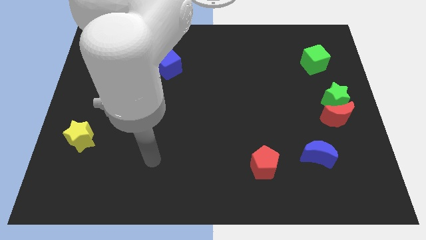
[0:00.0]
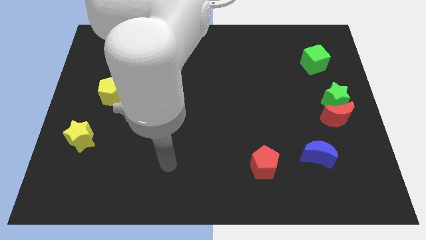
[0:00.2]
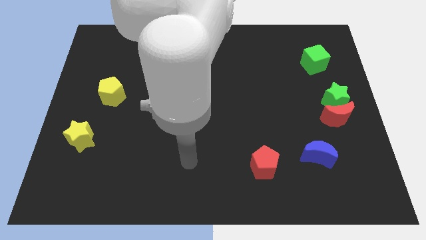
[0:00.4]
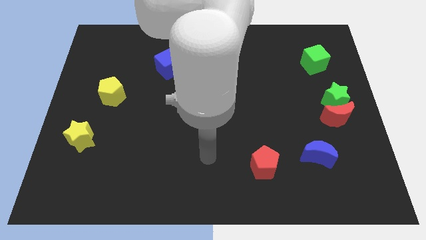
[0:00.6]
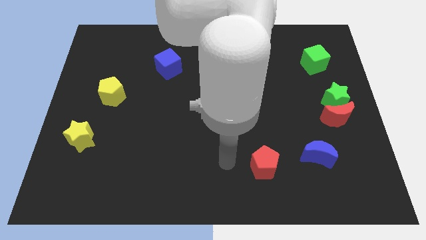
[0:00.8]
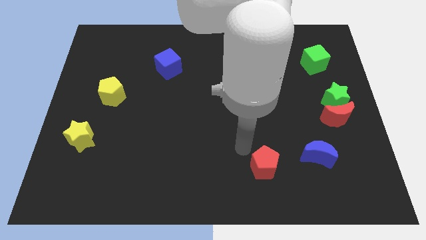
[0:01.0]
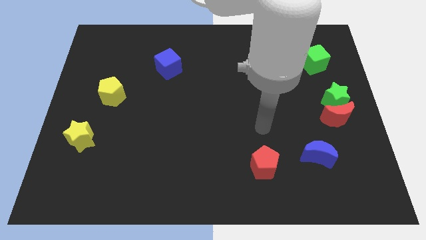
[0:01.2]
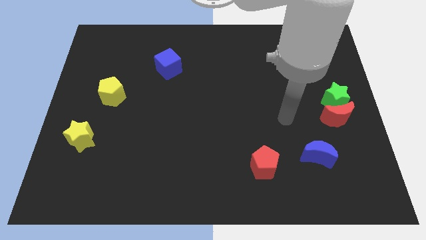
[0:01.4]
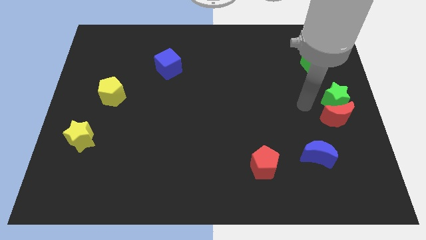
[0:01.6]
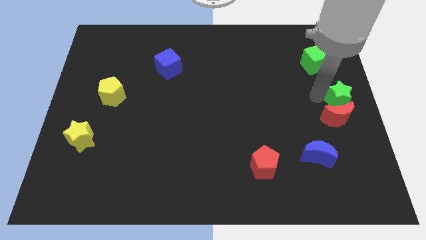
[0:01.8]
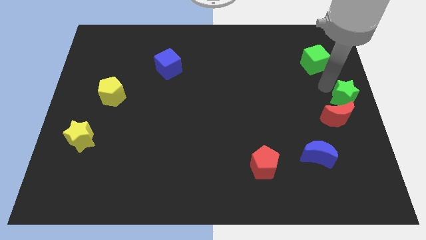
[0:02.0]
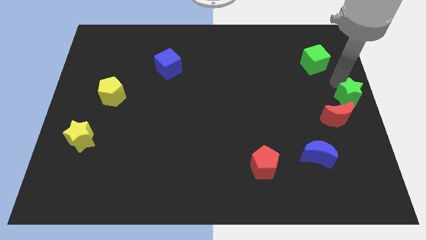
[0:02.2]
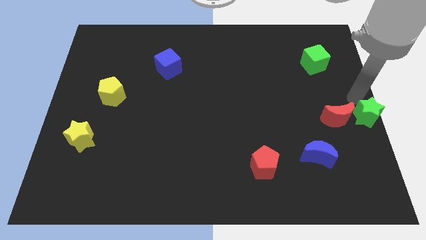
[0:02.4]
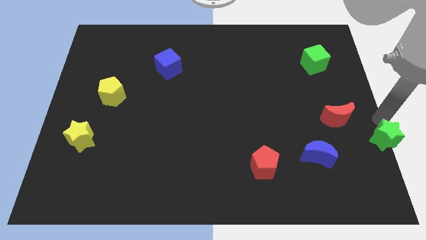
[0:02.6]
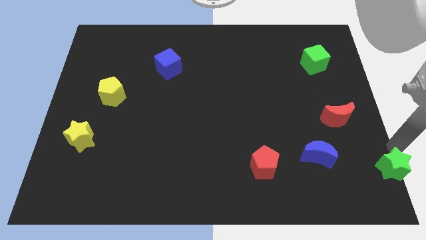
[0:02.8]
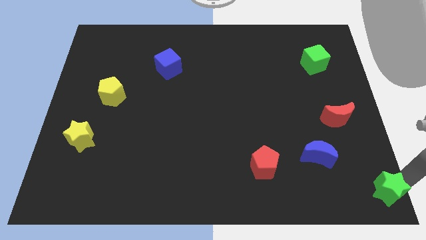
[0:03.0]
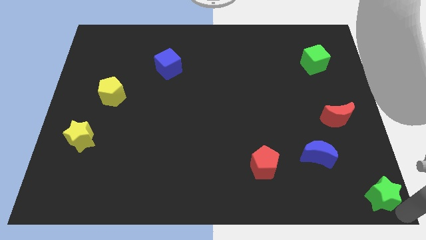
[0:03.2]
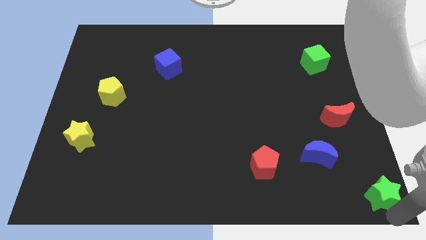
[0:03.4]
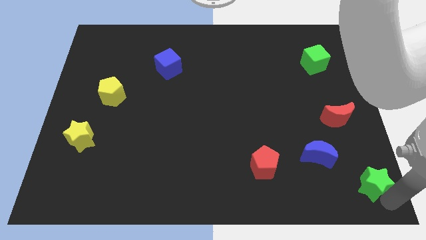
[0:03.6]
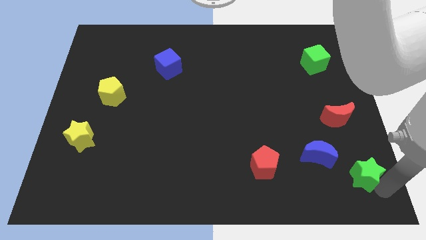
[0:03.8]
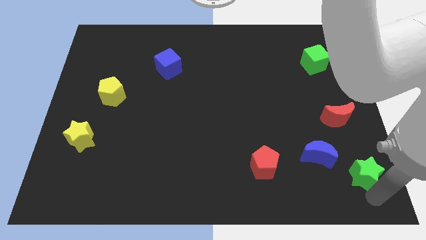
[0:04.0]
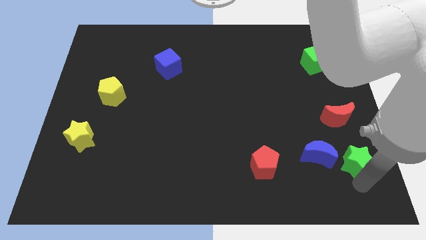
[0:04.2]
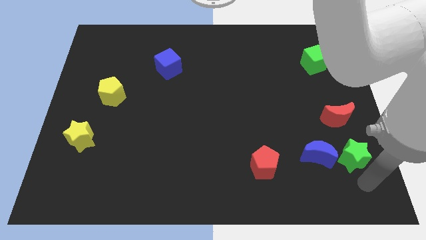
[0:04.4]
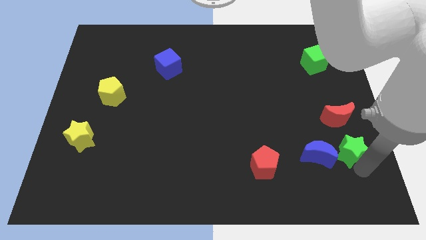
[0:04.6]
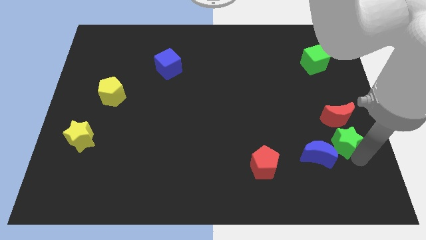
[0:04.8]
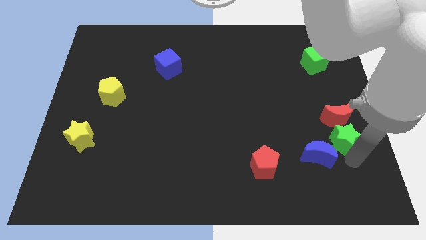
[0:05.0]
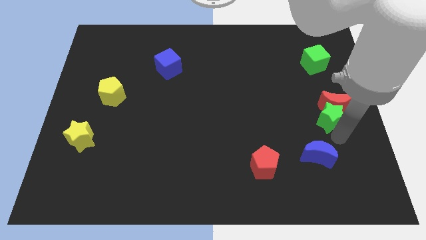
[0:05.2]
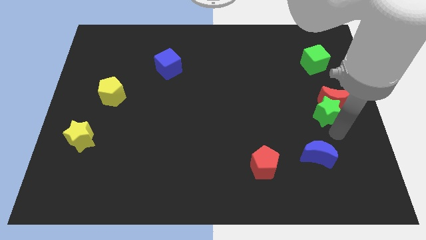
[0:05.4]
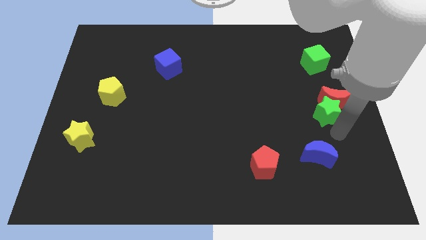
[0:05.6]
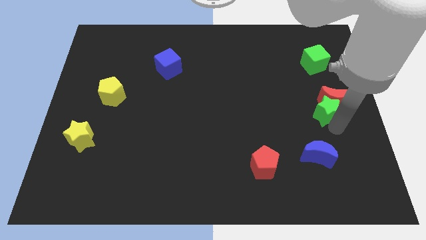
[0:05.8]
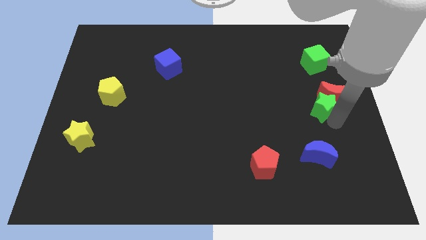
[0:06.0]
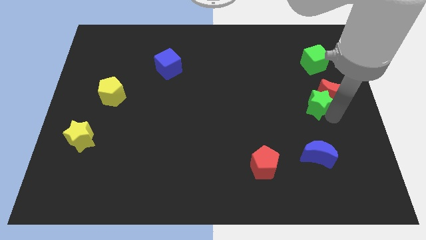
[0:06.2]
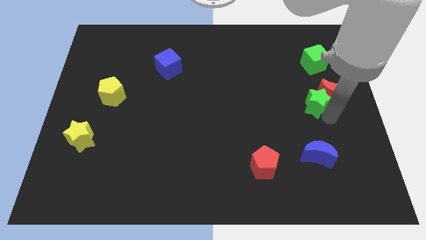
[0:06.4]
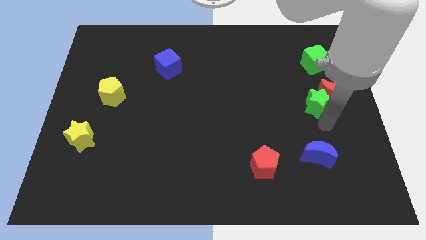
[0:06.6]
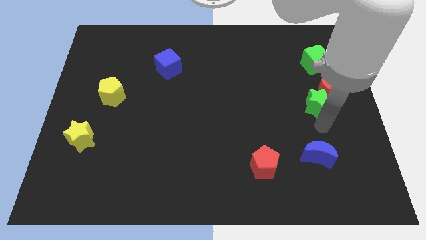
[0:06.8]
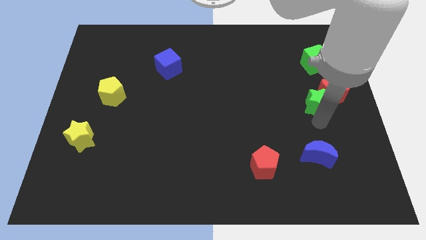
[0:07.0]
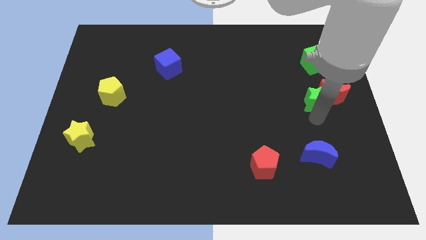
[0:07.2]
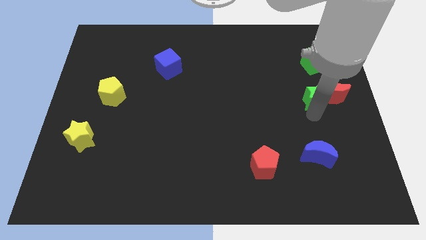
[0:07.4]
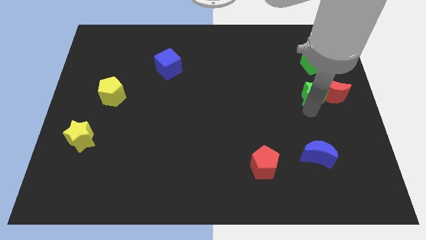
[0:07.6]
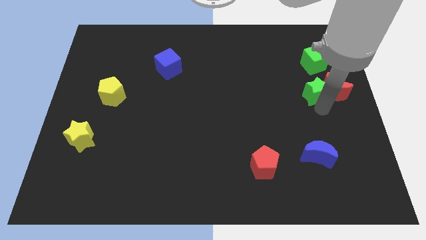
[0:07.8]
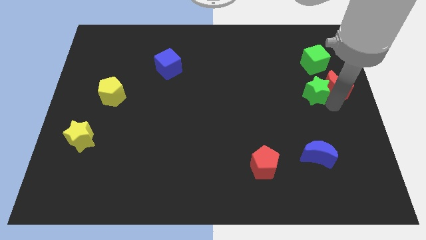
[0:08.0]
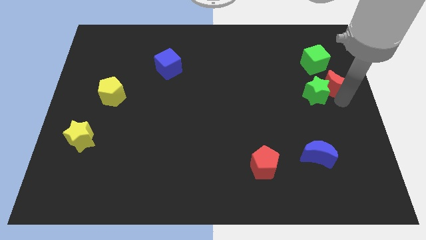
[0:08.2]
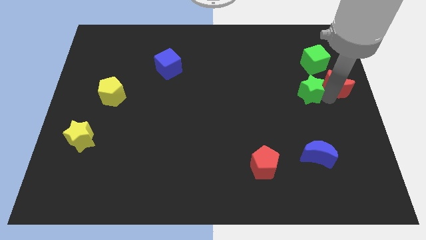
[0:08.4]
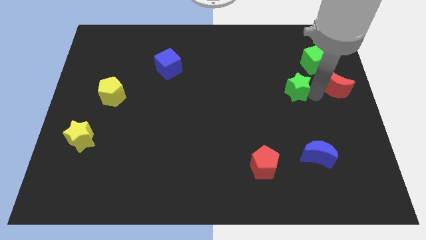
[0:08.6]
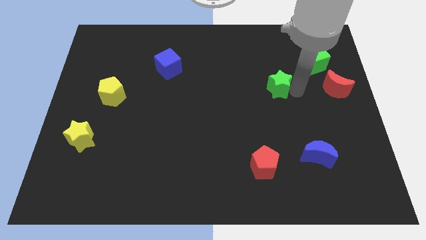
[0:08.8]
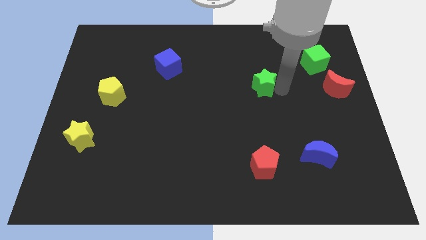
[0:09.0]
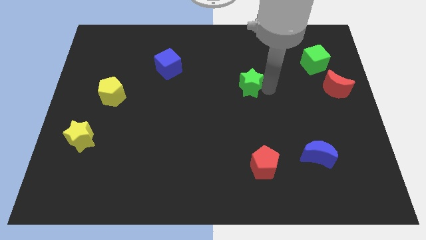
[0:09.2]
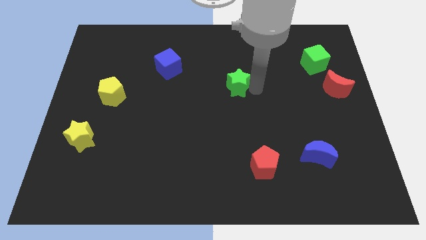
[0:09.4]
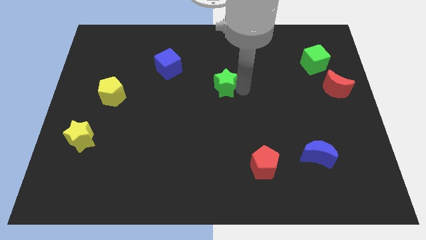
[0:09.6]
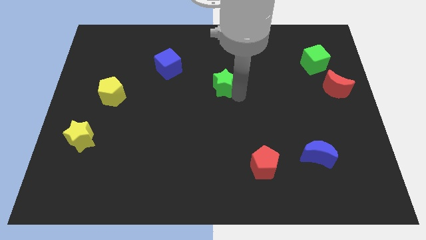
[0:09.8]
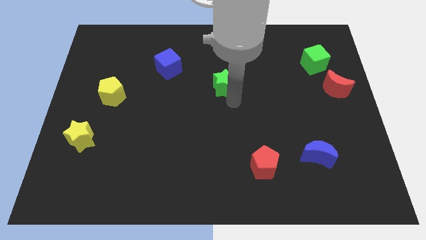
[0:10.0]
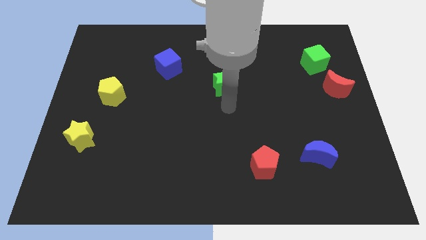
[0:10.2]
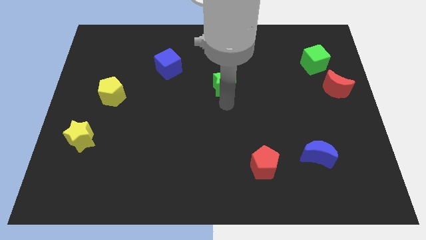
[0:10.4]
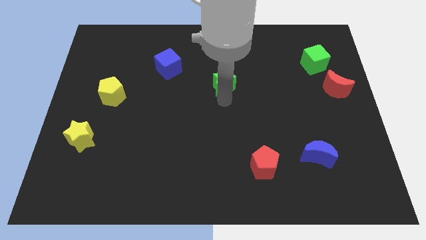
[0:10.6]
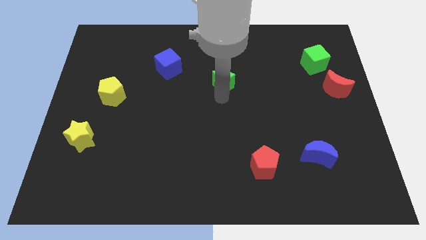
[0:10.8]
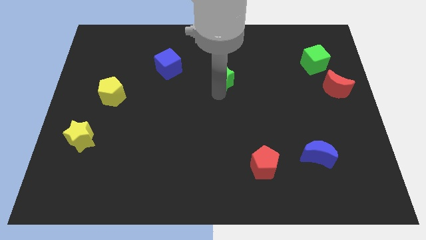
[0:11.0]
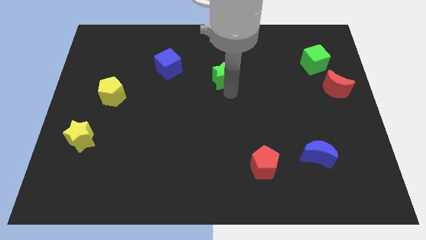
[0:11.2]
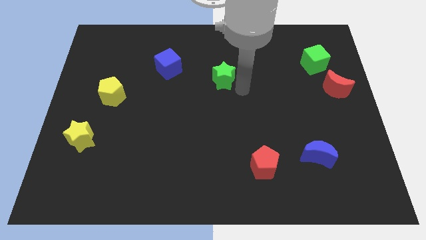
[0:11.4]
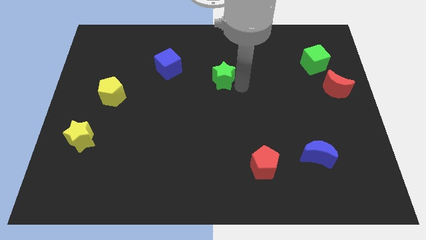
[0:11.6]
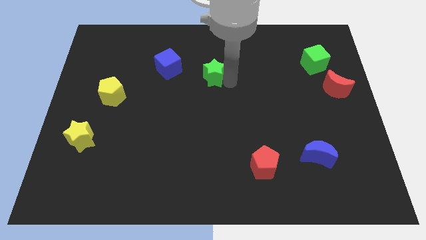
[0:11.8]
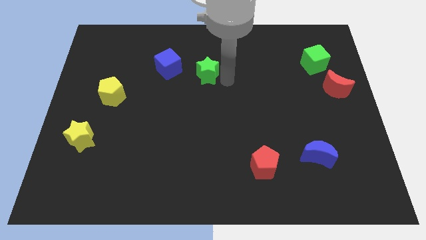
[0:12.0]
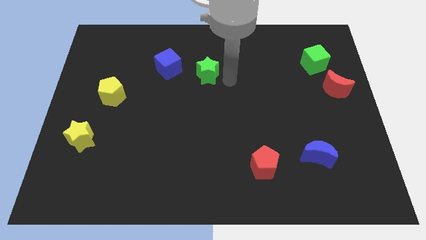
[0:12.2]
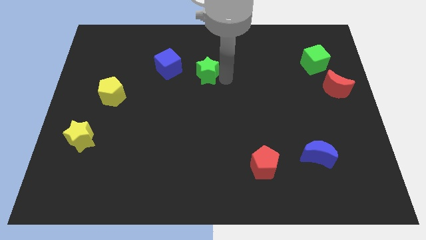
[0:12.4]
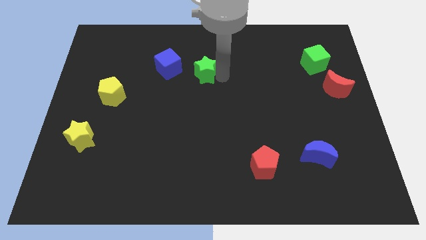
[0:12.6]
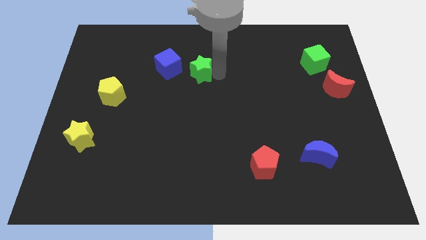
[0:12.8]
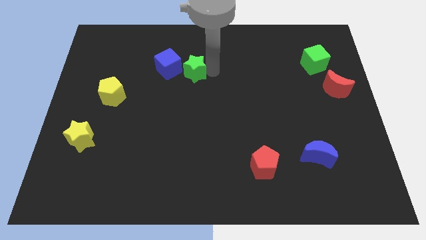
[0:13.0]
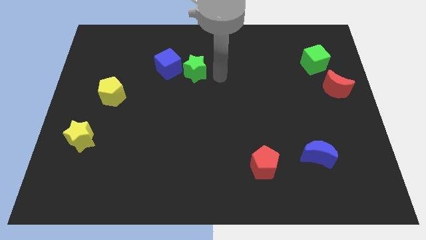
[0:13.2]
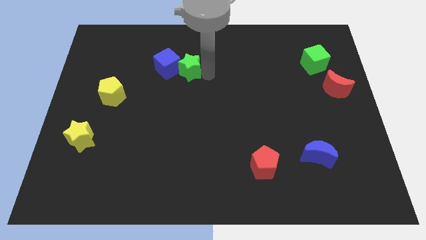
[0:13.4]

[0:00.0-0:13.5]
slide the green star to the blue cube

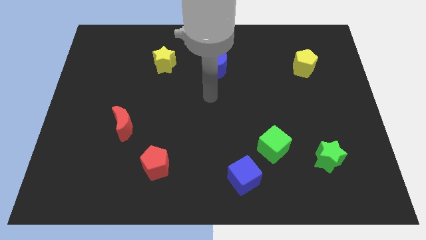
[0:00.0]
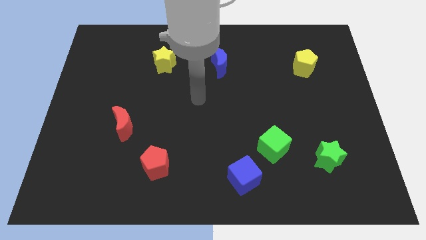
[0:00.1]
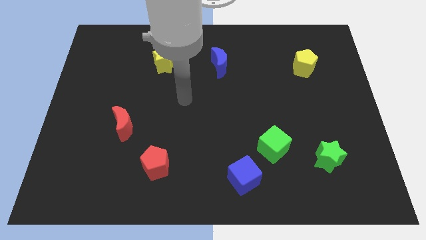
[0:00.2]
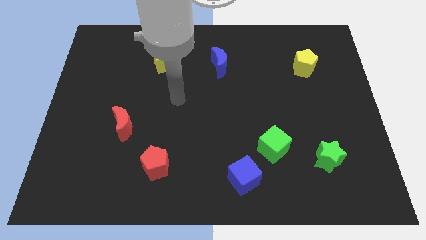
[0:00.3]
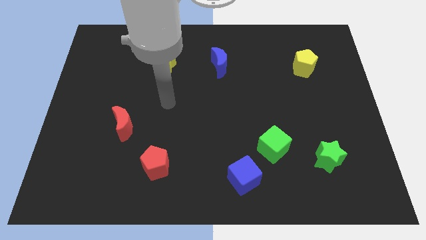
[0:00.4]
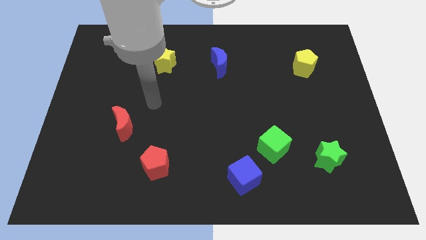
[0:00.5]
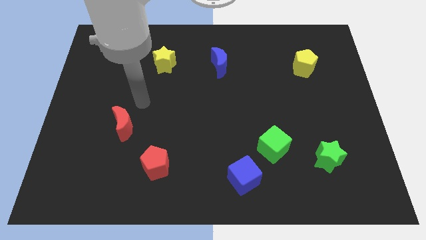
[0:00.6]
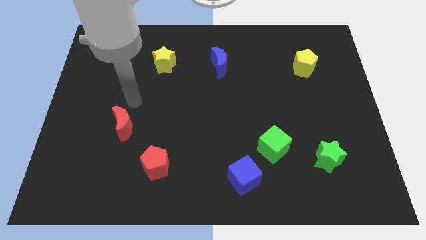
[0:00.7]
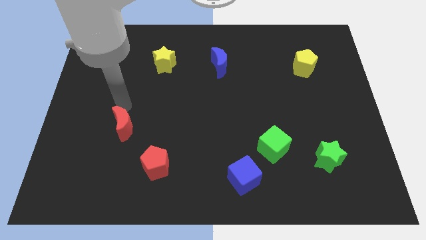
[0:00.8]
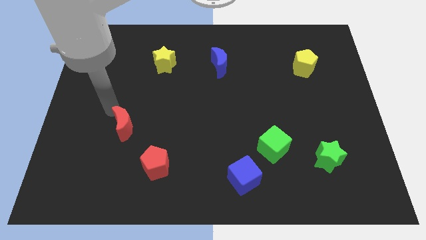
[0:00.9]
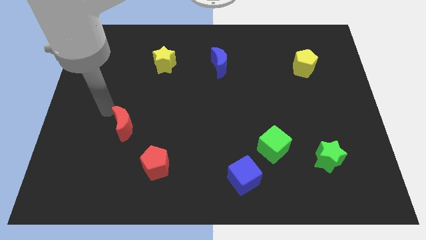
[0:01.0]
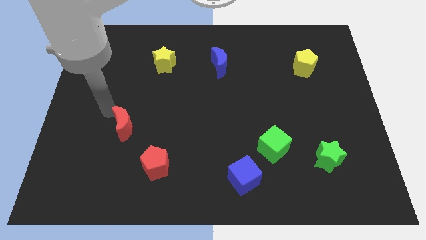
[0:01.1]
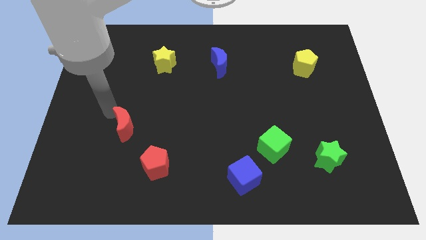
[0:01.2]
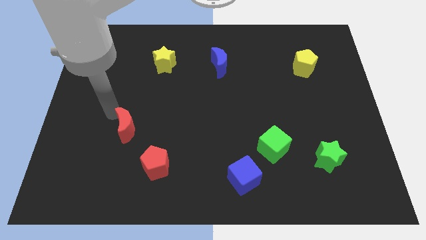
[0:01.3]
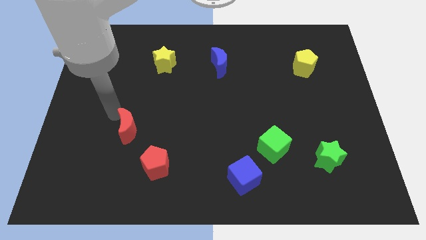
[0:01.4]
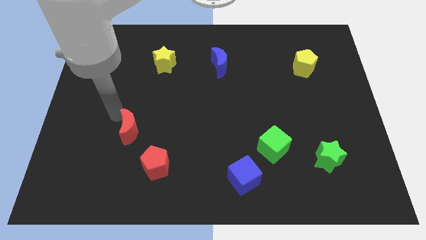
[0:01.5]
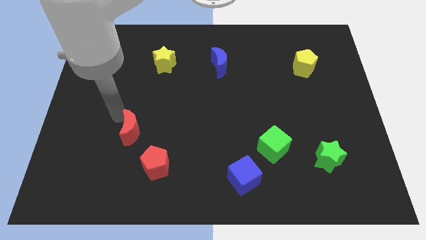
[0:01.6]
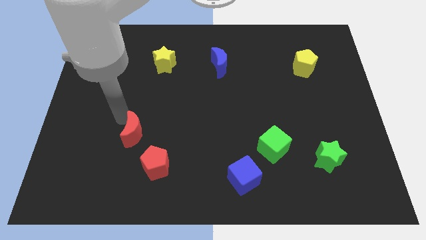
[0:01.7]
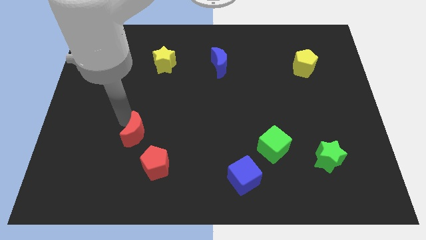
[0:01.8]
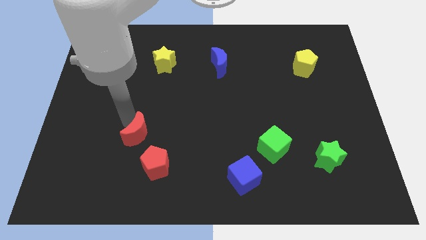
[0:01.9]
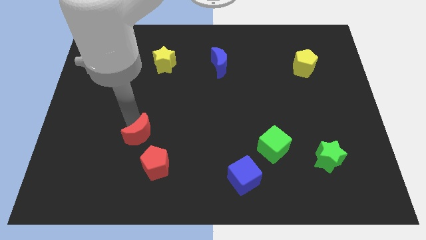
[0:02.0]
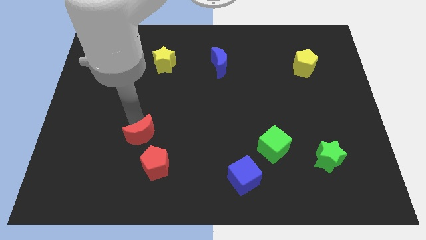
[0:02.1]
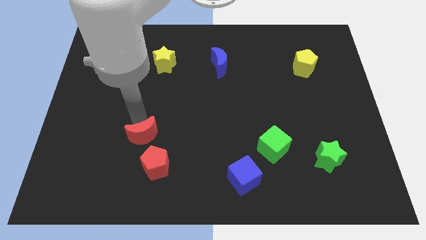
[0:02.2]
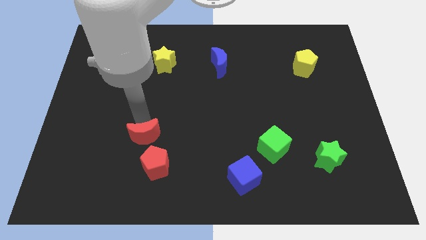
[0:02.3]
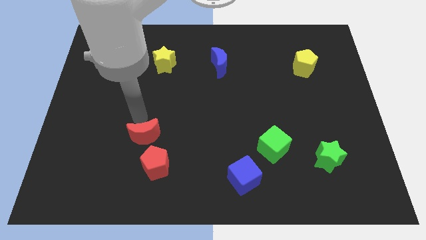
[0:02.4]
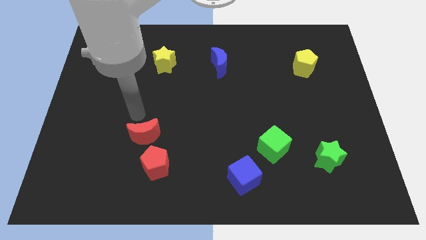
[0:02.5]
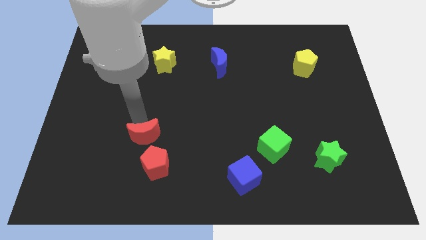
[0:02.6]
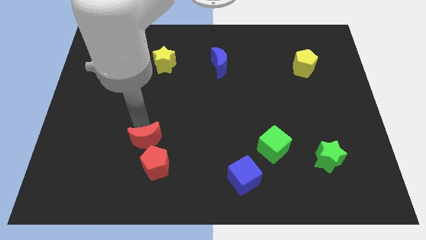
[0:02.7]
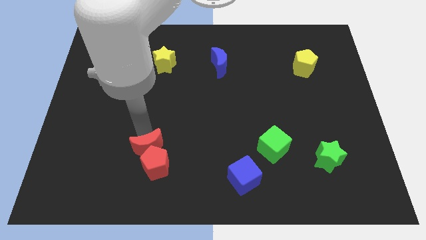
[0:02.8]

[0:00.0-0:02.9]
push the red moon to the red pentagon
